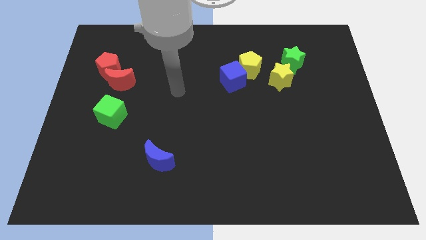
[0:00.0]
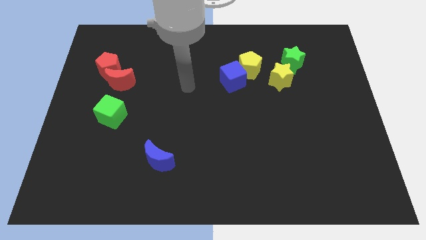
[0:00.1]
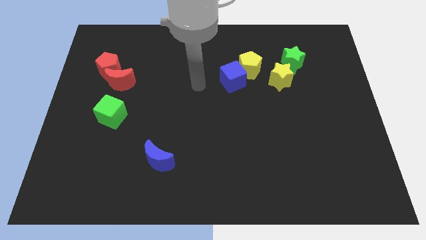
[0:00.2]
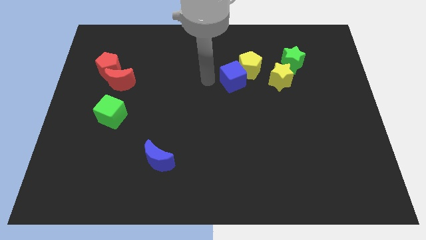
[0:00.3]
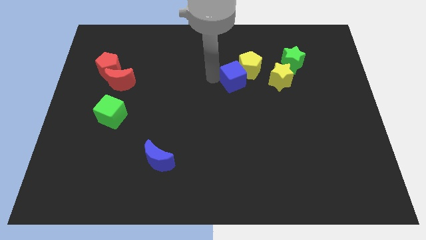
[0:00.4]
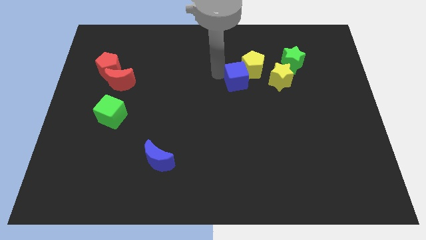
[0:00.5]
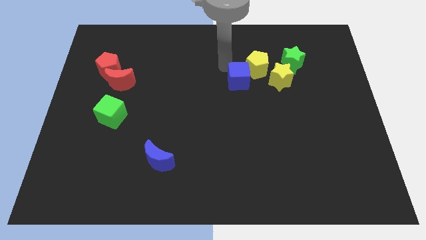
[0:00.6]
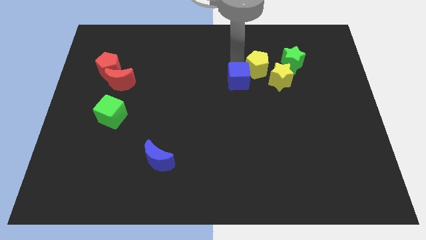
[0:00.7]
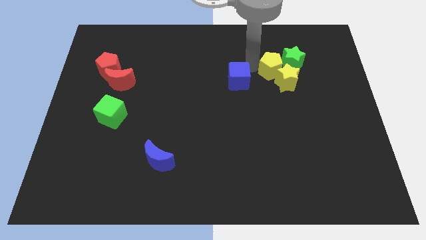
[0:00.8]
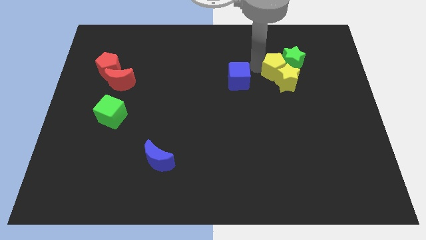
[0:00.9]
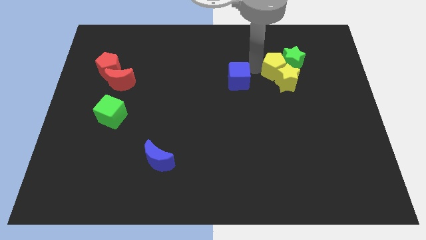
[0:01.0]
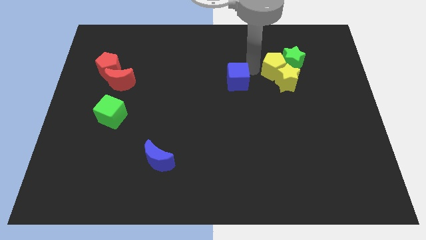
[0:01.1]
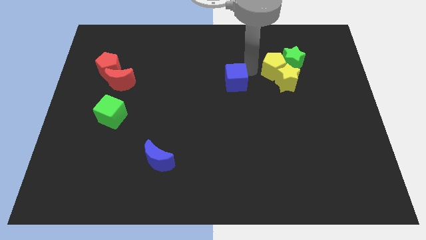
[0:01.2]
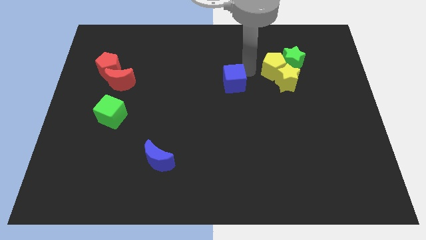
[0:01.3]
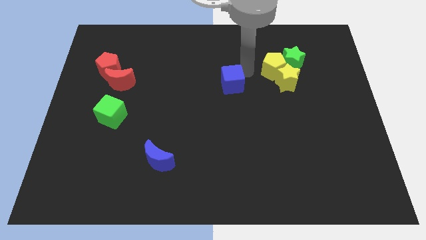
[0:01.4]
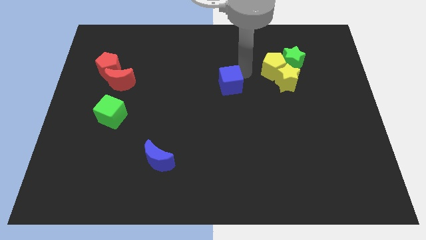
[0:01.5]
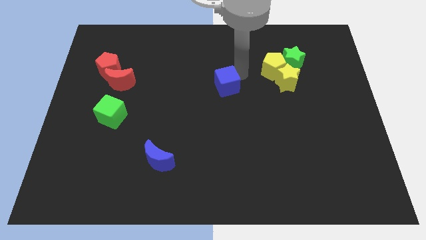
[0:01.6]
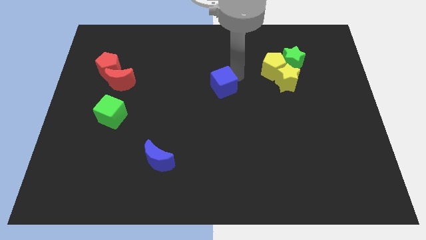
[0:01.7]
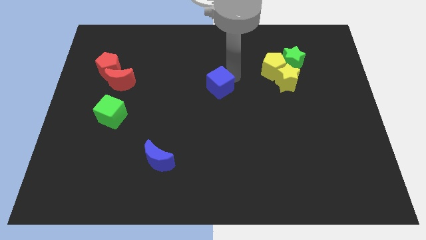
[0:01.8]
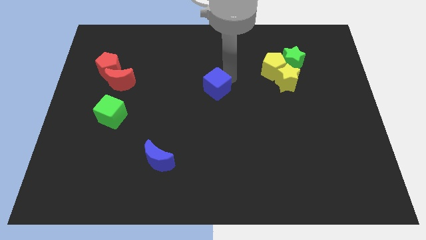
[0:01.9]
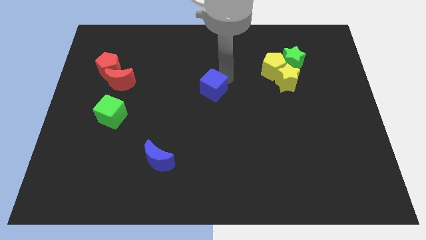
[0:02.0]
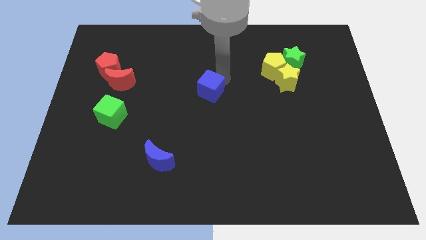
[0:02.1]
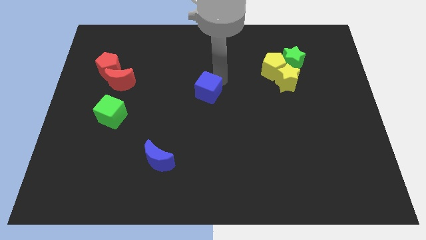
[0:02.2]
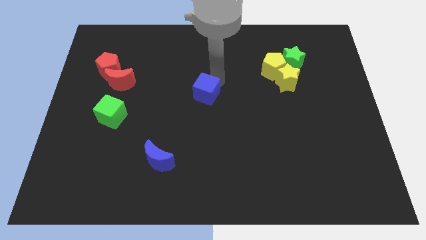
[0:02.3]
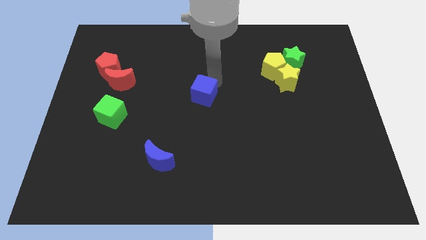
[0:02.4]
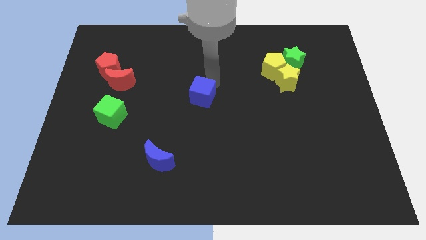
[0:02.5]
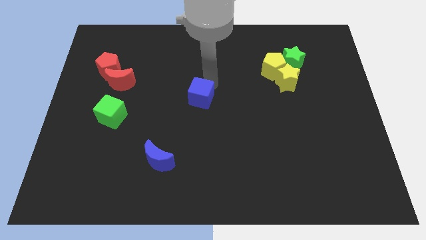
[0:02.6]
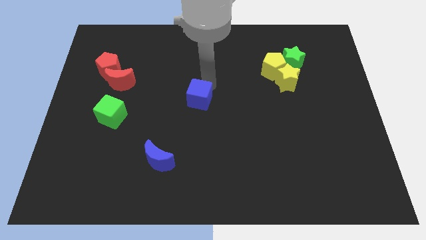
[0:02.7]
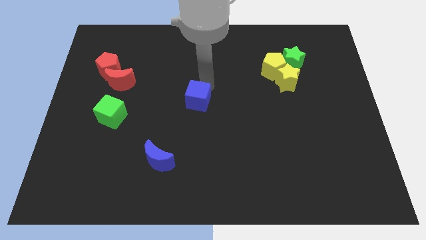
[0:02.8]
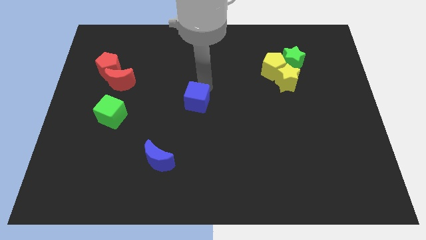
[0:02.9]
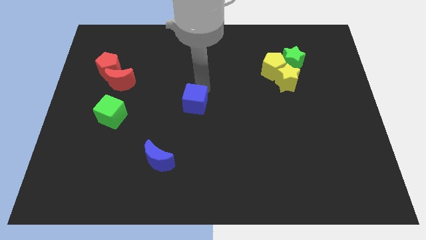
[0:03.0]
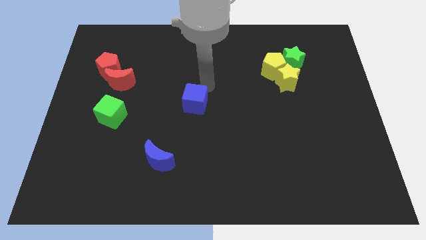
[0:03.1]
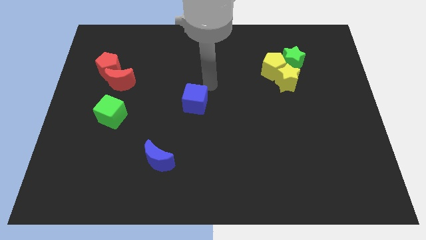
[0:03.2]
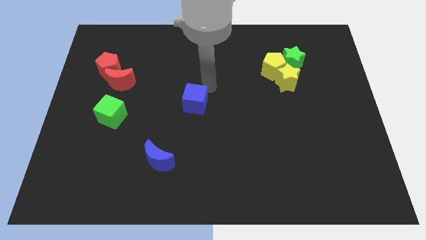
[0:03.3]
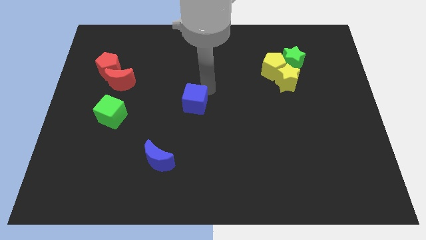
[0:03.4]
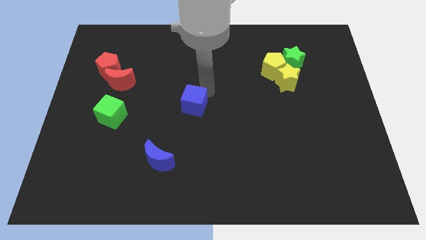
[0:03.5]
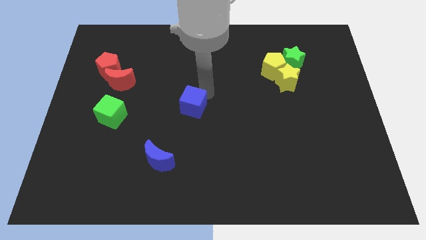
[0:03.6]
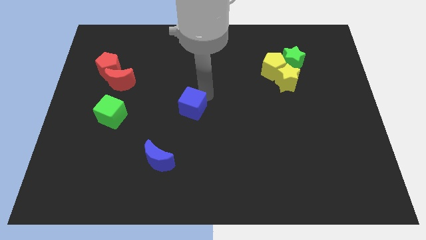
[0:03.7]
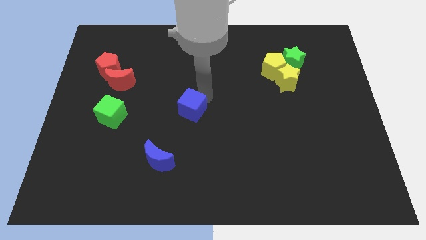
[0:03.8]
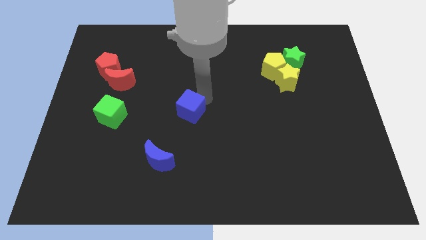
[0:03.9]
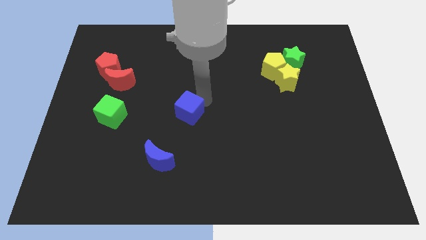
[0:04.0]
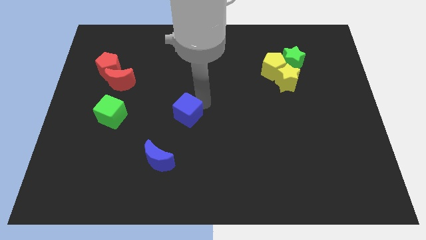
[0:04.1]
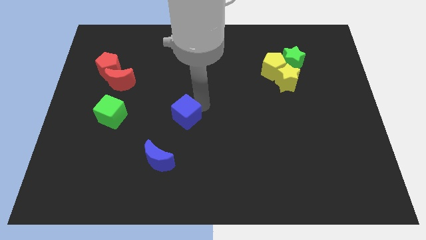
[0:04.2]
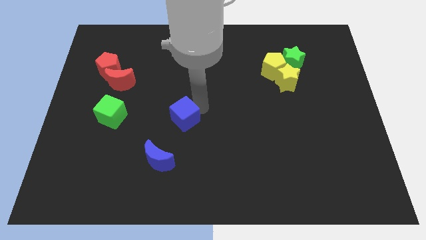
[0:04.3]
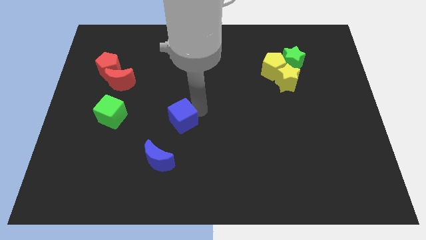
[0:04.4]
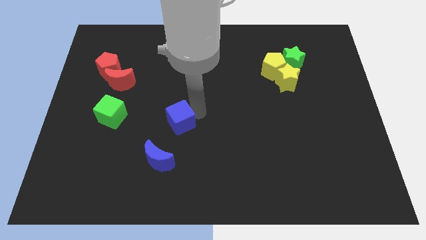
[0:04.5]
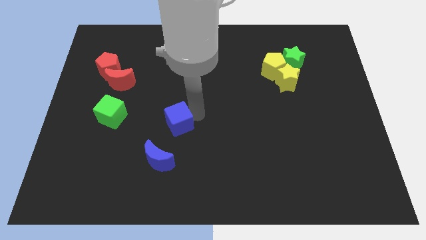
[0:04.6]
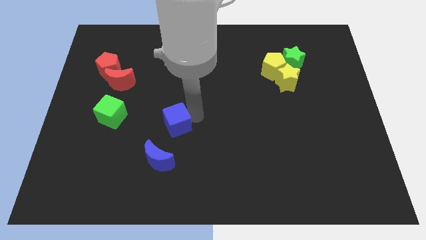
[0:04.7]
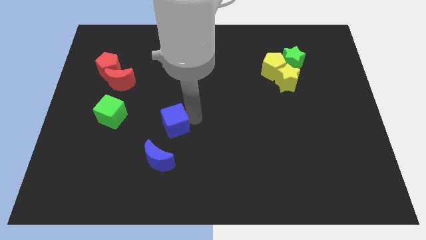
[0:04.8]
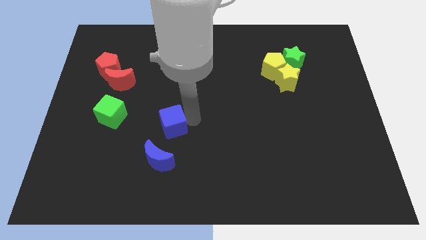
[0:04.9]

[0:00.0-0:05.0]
push the blue cube down and then to the left

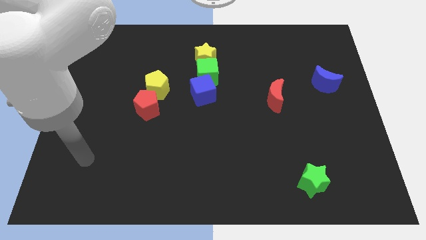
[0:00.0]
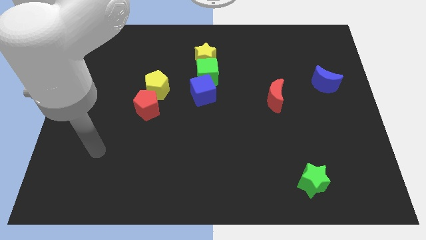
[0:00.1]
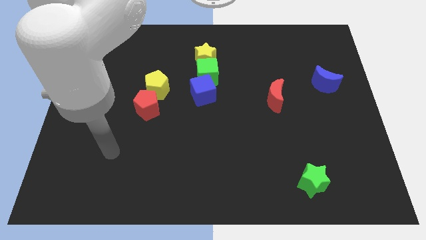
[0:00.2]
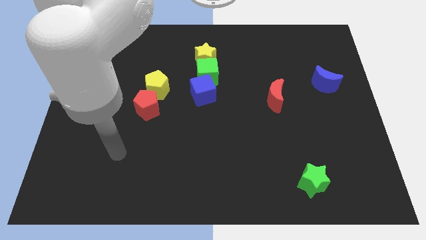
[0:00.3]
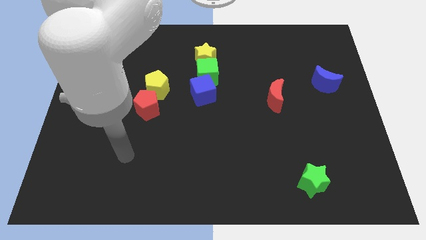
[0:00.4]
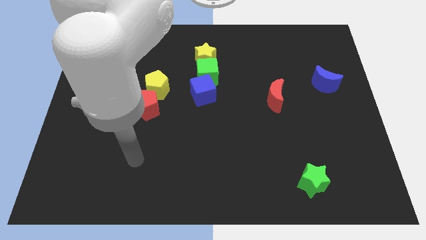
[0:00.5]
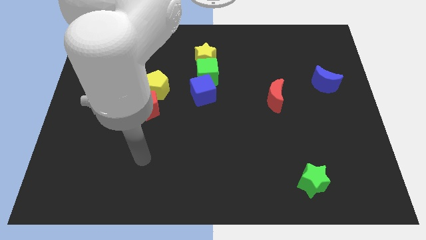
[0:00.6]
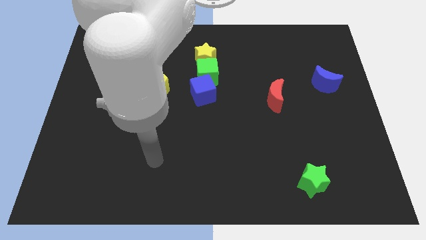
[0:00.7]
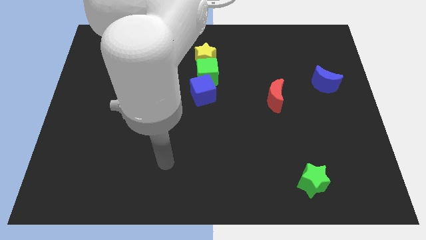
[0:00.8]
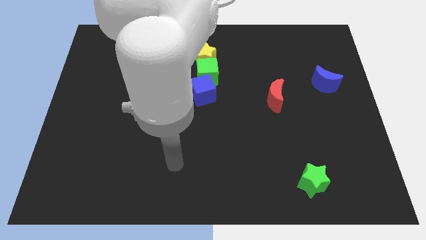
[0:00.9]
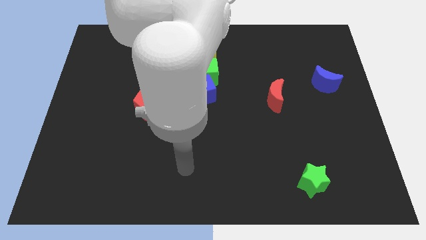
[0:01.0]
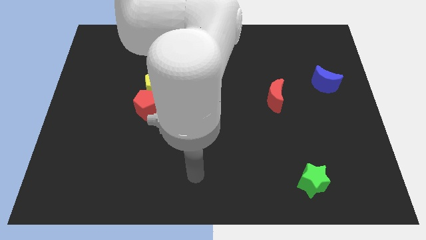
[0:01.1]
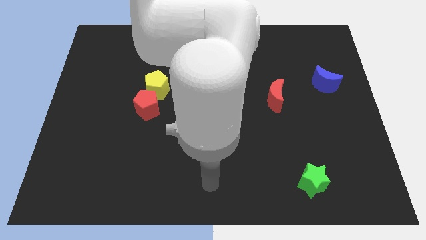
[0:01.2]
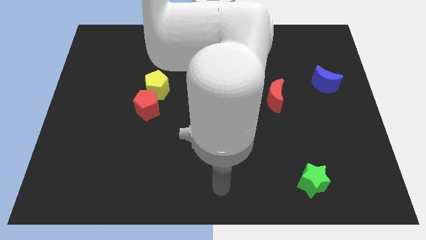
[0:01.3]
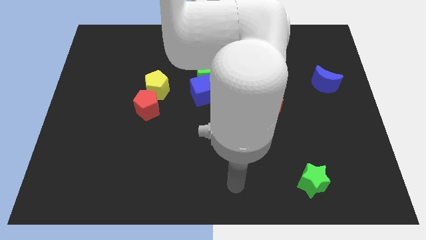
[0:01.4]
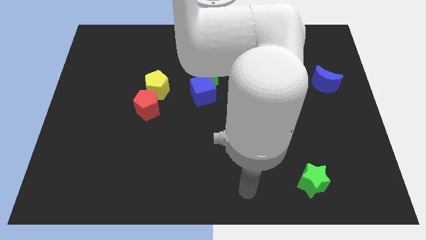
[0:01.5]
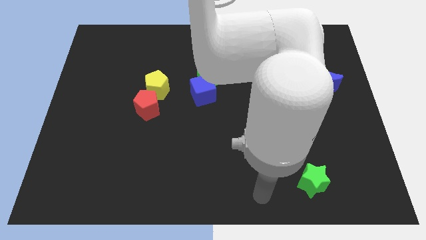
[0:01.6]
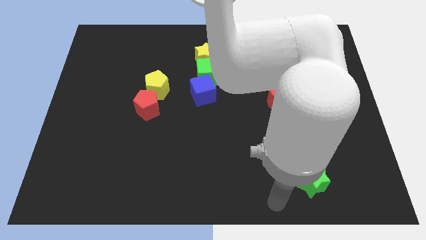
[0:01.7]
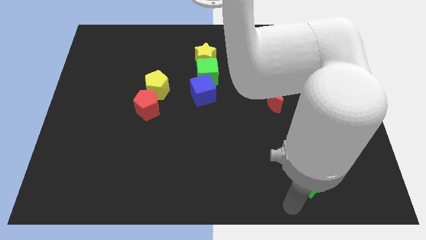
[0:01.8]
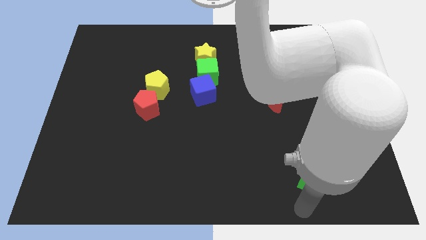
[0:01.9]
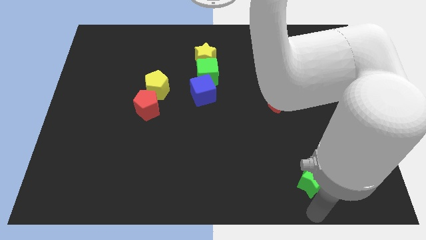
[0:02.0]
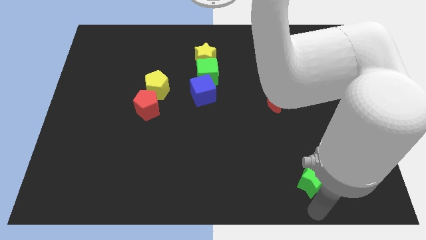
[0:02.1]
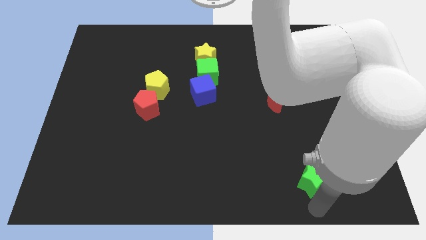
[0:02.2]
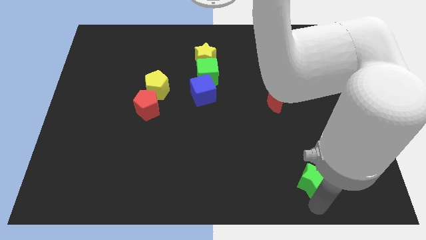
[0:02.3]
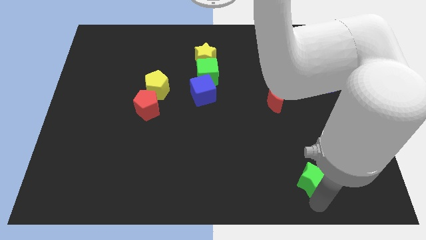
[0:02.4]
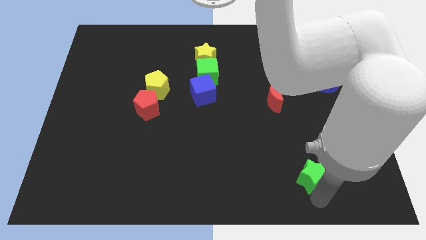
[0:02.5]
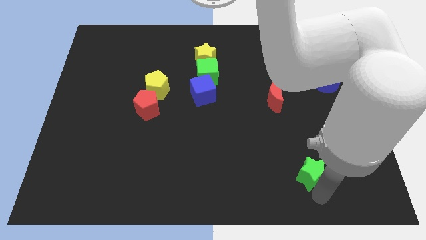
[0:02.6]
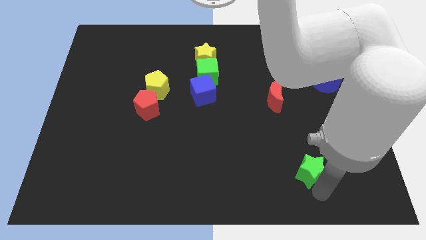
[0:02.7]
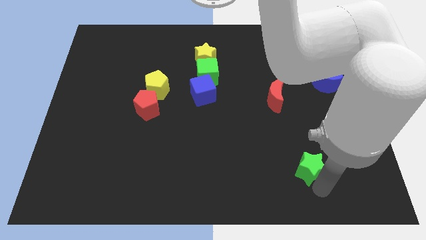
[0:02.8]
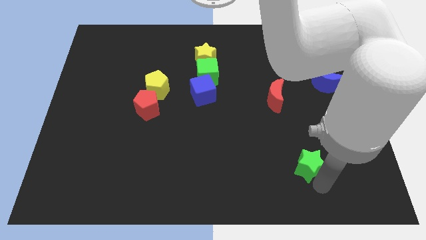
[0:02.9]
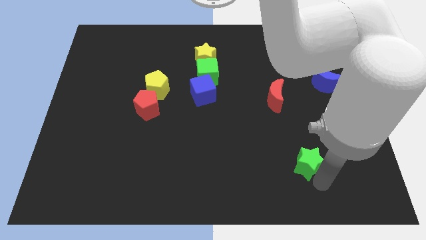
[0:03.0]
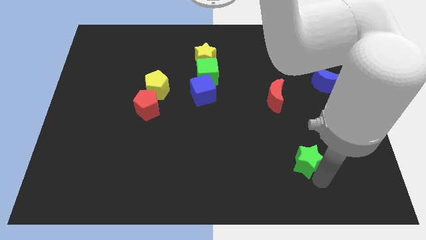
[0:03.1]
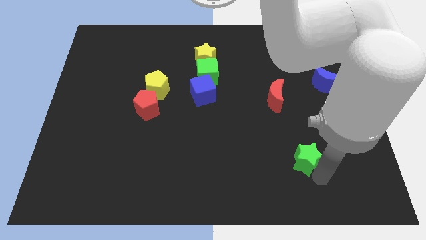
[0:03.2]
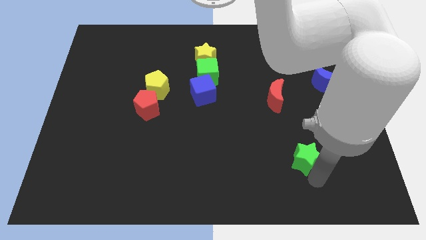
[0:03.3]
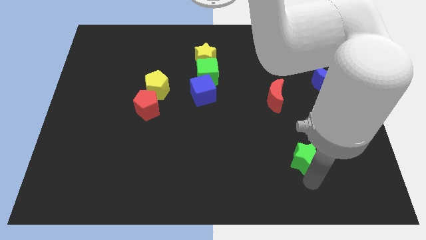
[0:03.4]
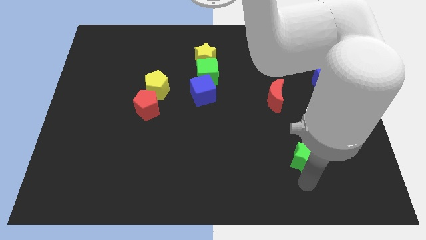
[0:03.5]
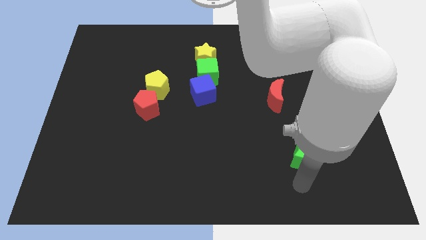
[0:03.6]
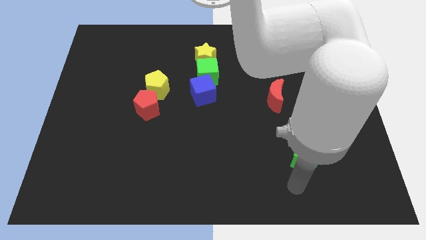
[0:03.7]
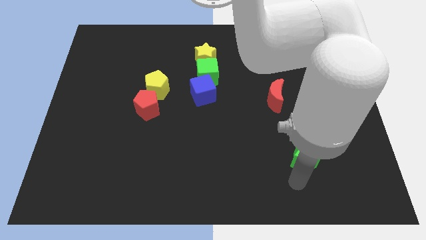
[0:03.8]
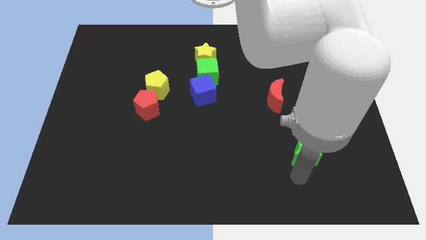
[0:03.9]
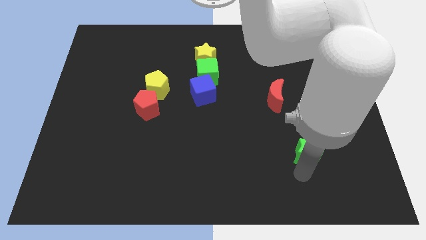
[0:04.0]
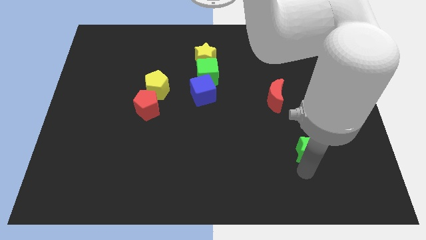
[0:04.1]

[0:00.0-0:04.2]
move the green star a bit up
